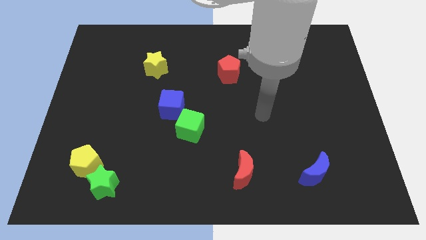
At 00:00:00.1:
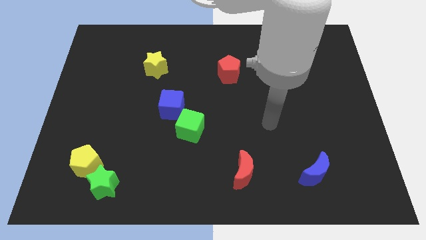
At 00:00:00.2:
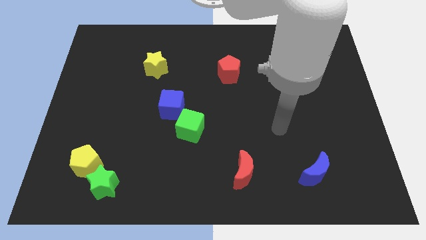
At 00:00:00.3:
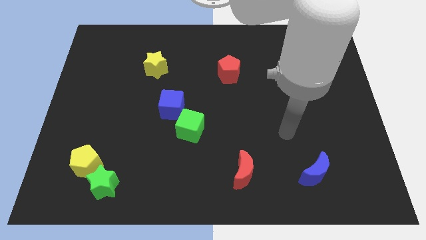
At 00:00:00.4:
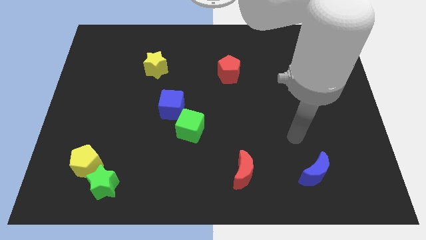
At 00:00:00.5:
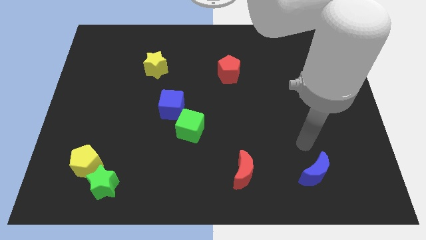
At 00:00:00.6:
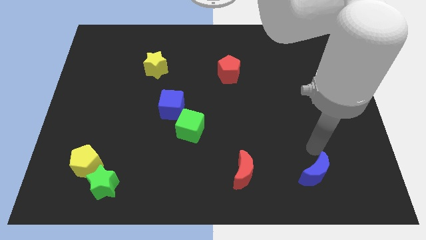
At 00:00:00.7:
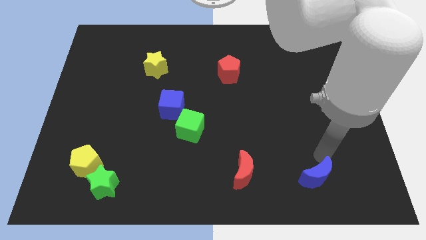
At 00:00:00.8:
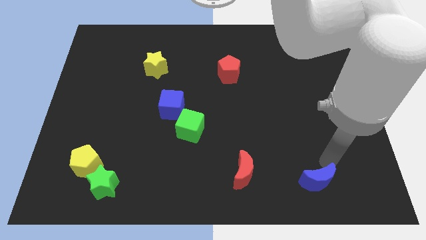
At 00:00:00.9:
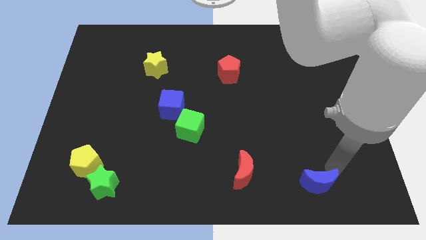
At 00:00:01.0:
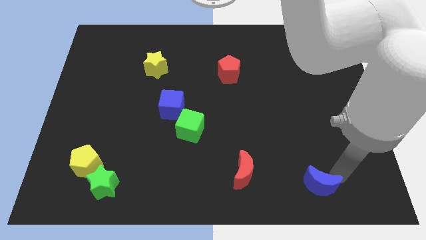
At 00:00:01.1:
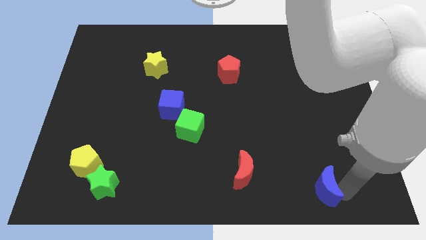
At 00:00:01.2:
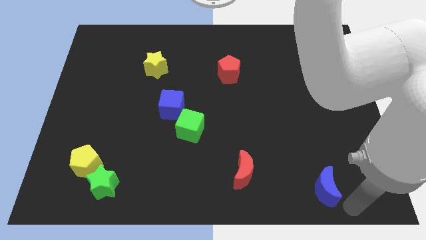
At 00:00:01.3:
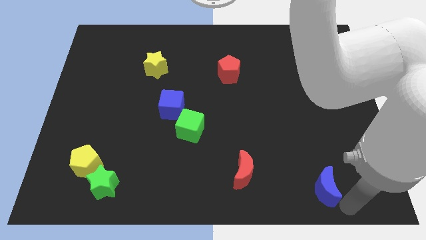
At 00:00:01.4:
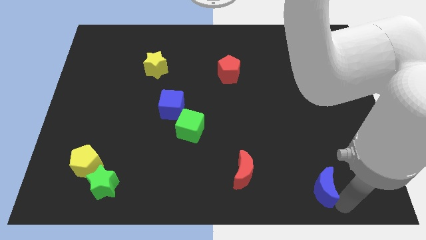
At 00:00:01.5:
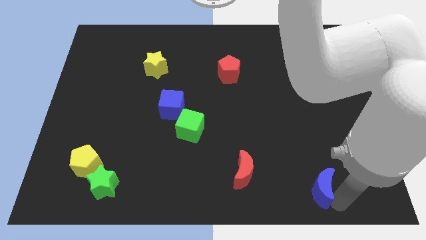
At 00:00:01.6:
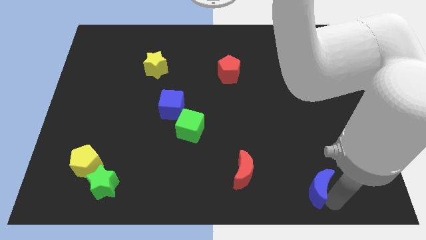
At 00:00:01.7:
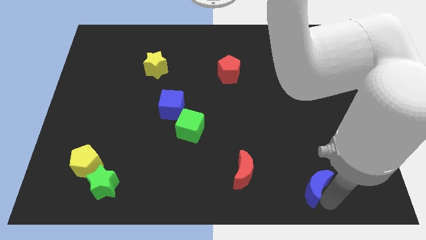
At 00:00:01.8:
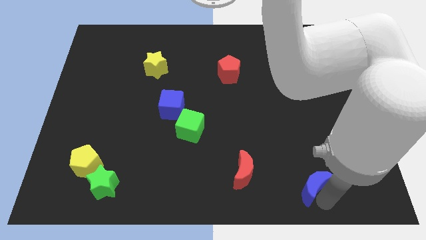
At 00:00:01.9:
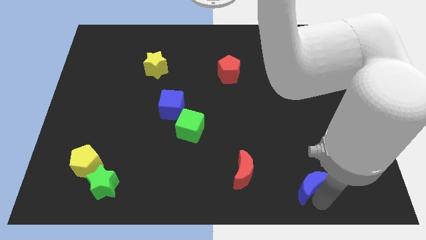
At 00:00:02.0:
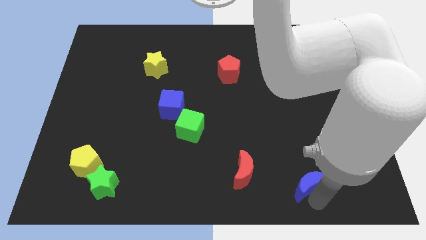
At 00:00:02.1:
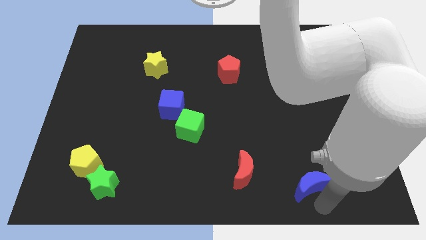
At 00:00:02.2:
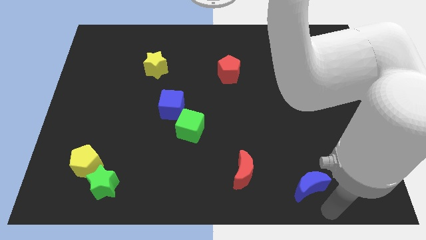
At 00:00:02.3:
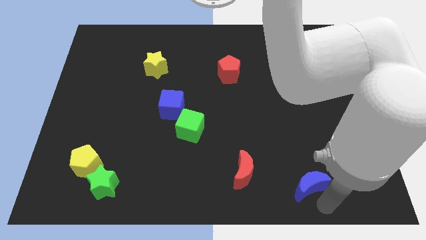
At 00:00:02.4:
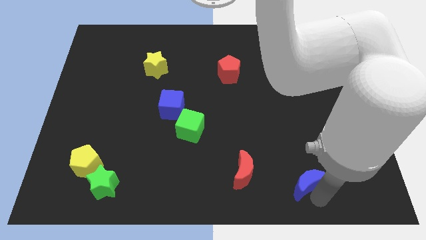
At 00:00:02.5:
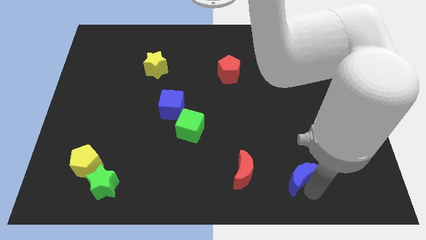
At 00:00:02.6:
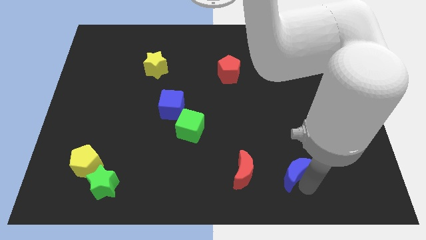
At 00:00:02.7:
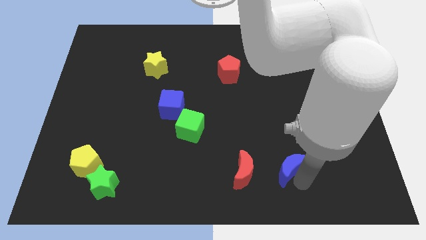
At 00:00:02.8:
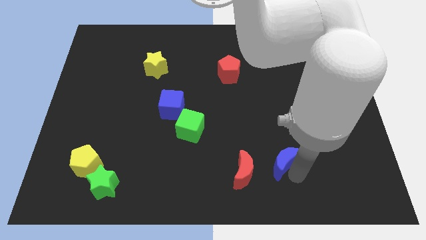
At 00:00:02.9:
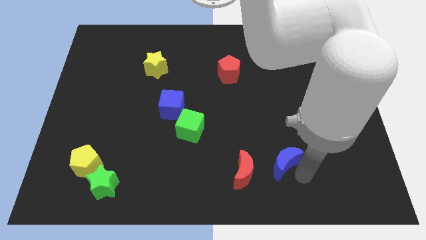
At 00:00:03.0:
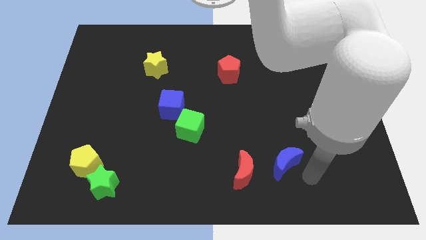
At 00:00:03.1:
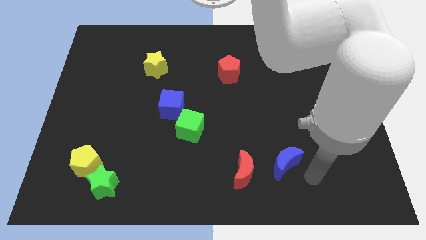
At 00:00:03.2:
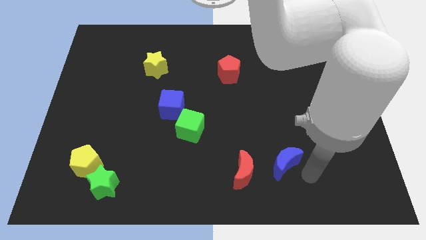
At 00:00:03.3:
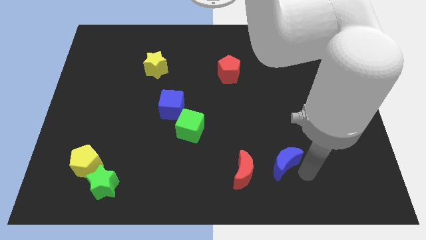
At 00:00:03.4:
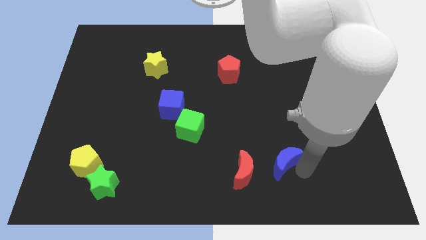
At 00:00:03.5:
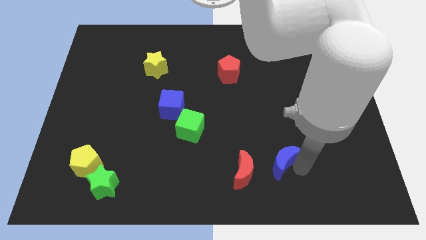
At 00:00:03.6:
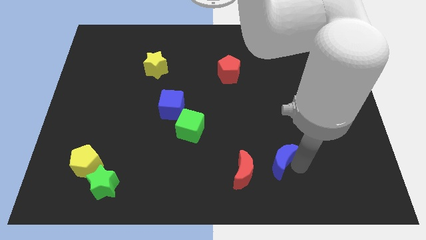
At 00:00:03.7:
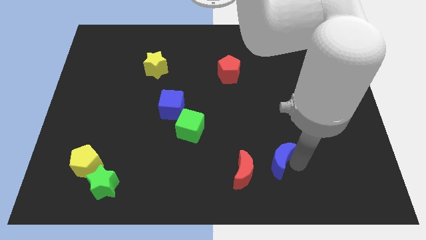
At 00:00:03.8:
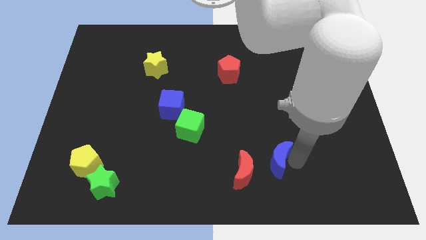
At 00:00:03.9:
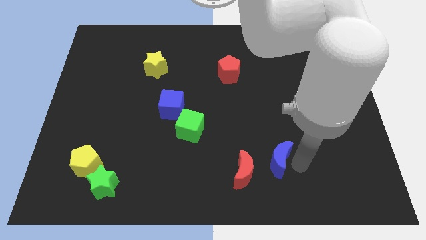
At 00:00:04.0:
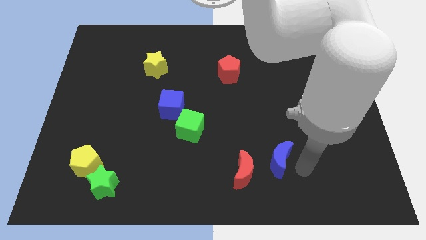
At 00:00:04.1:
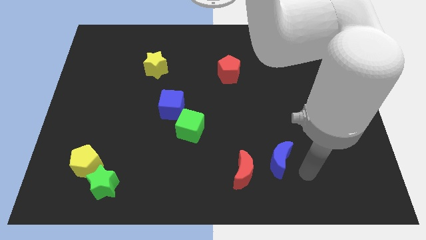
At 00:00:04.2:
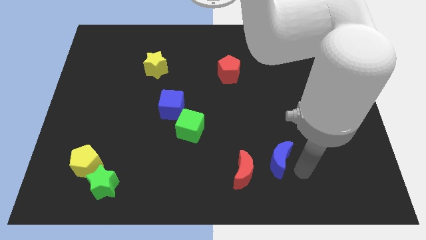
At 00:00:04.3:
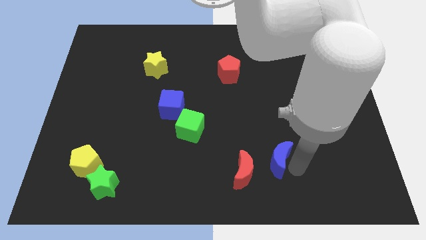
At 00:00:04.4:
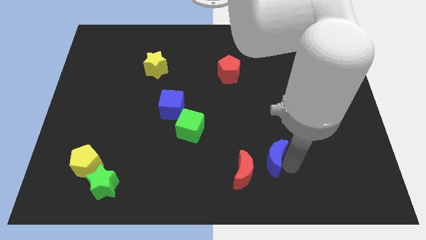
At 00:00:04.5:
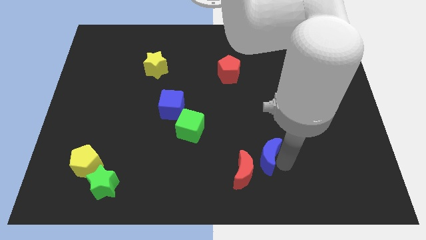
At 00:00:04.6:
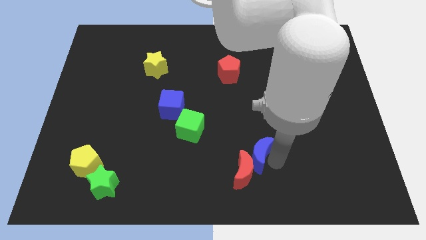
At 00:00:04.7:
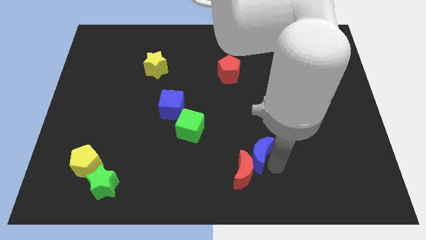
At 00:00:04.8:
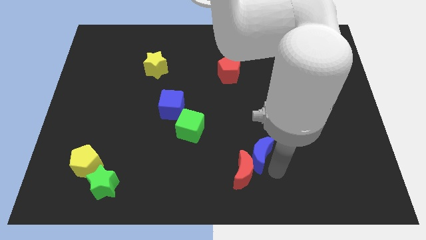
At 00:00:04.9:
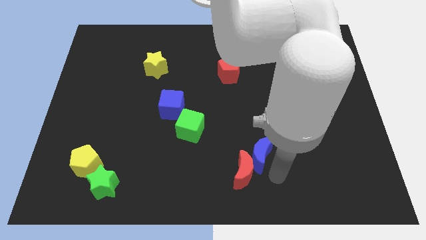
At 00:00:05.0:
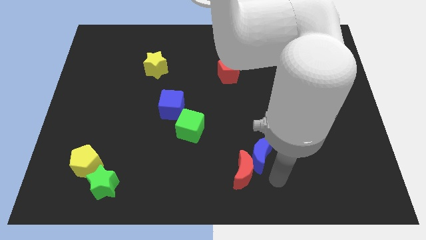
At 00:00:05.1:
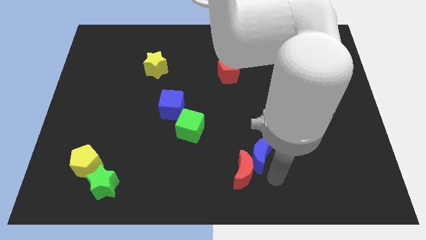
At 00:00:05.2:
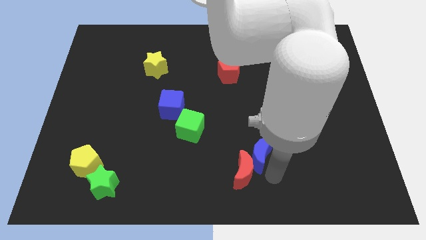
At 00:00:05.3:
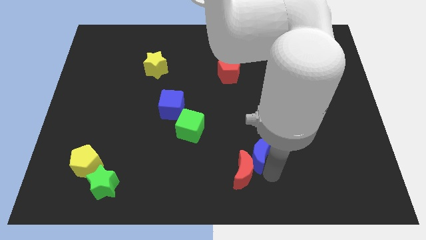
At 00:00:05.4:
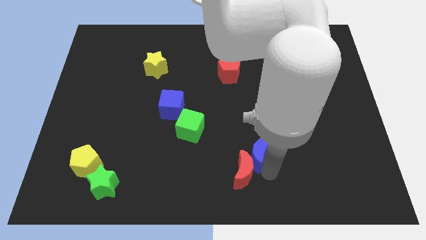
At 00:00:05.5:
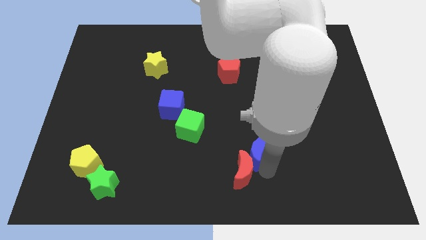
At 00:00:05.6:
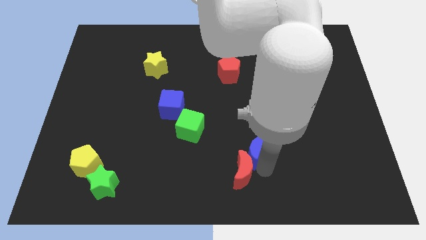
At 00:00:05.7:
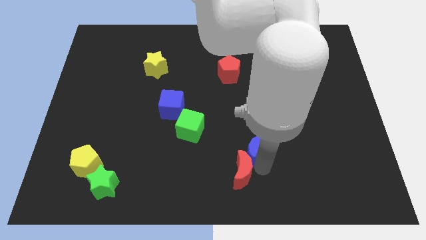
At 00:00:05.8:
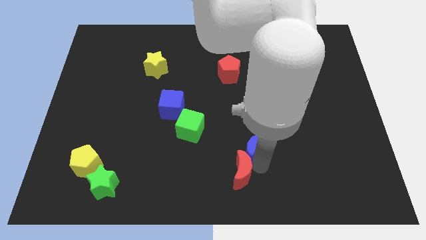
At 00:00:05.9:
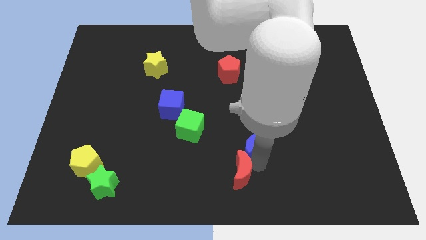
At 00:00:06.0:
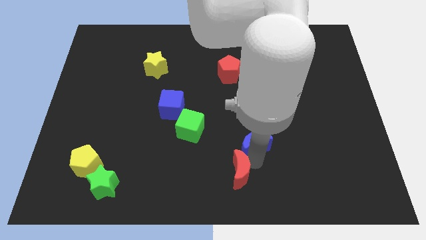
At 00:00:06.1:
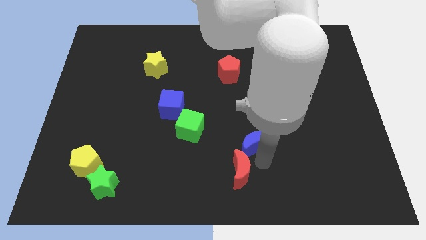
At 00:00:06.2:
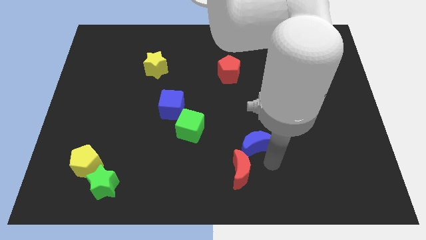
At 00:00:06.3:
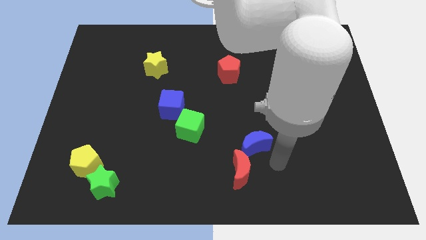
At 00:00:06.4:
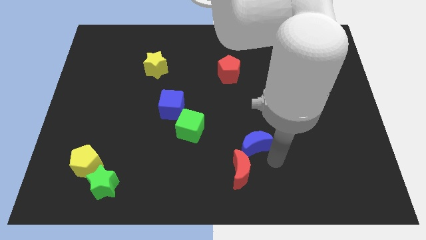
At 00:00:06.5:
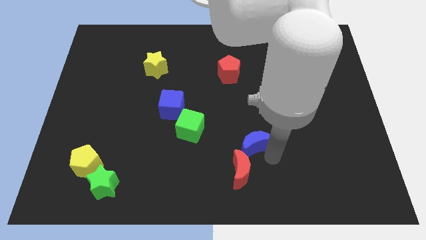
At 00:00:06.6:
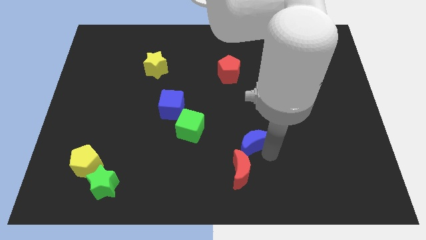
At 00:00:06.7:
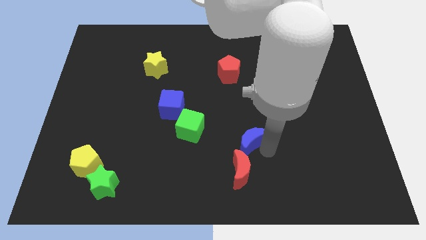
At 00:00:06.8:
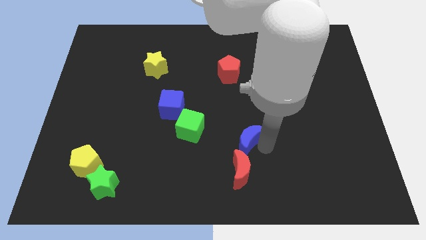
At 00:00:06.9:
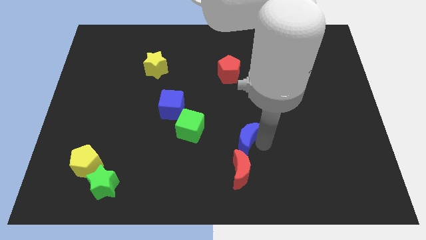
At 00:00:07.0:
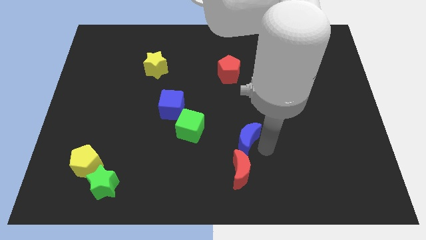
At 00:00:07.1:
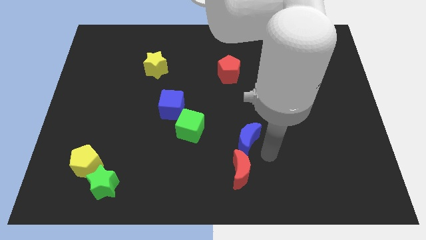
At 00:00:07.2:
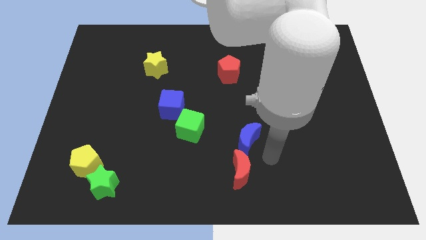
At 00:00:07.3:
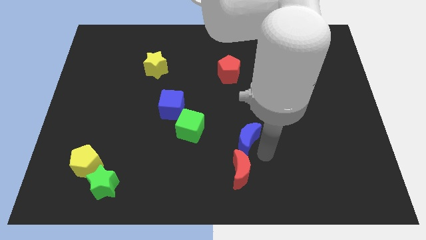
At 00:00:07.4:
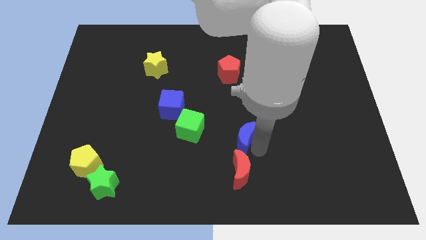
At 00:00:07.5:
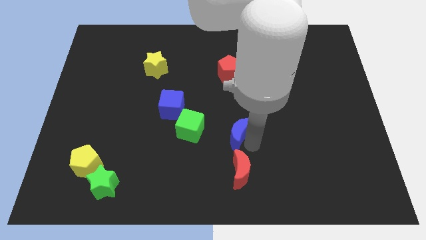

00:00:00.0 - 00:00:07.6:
slide the blue moon to the middle
